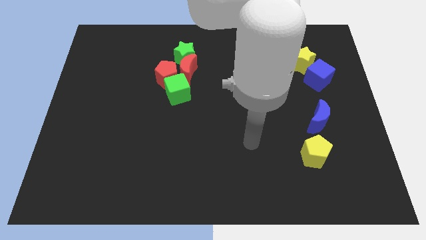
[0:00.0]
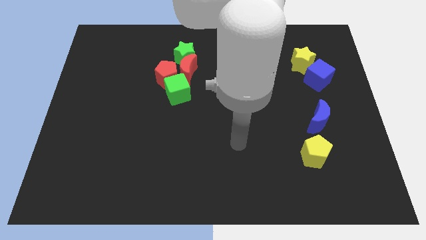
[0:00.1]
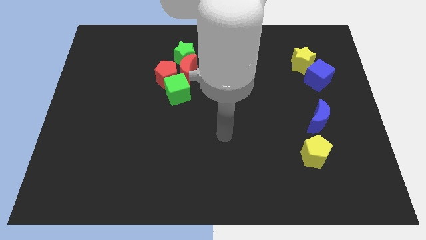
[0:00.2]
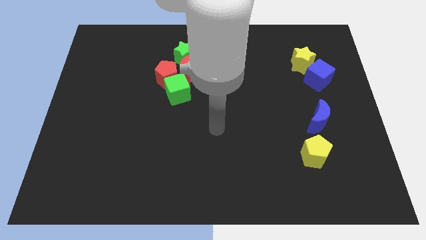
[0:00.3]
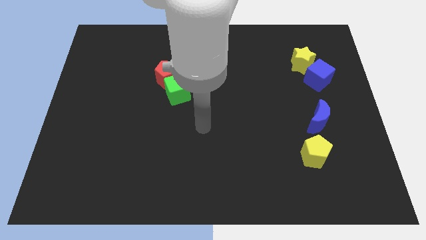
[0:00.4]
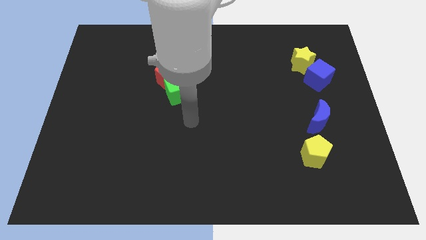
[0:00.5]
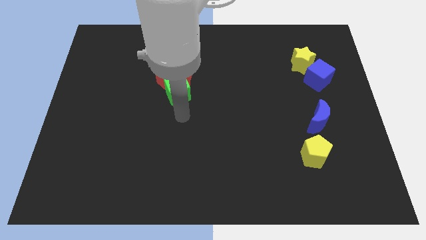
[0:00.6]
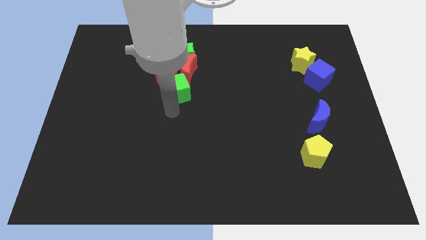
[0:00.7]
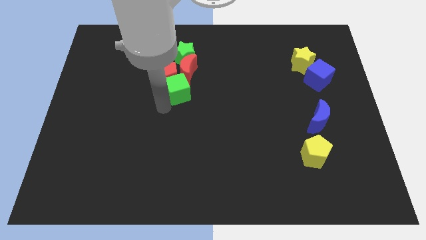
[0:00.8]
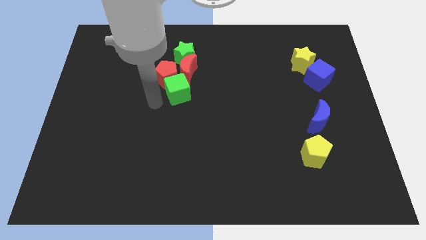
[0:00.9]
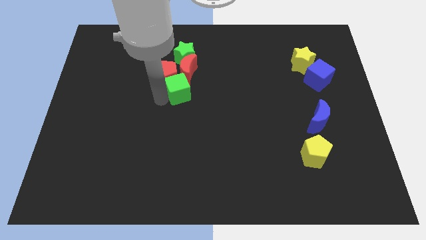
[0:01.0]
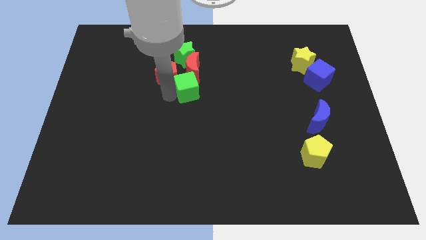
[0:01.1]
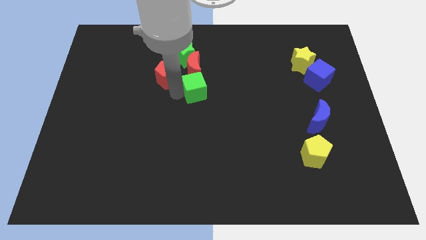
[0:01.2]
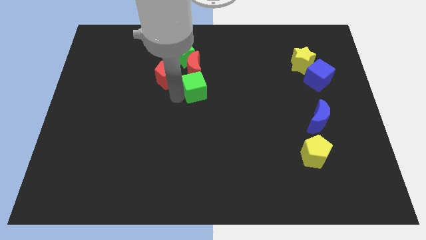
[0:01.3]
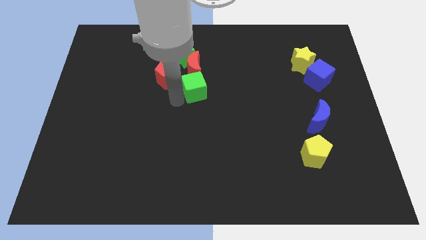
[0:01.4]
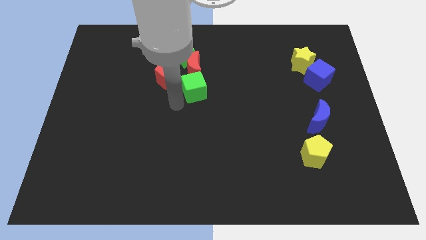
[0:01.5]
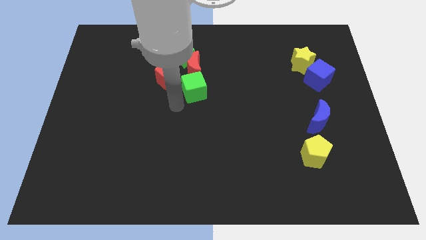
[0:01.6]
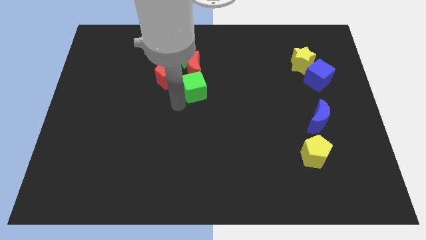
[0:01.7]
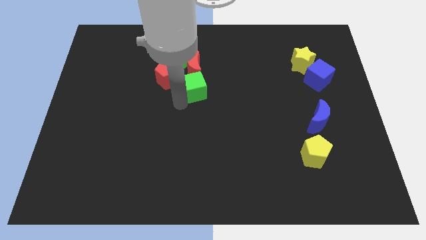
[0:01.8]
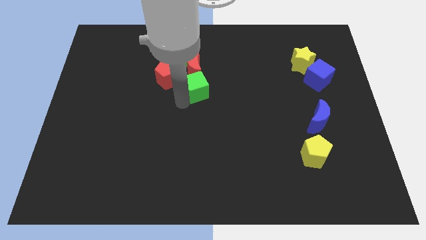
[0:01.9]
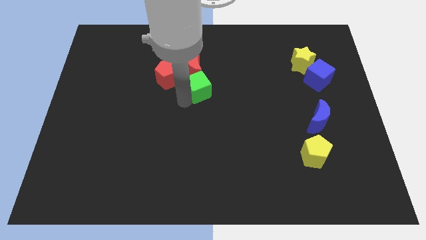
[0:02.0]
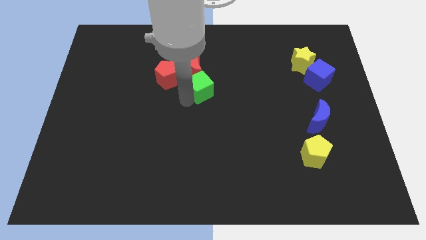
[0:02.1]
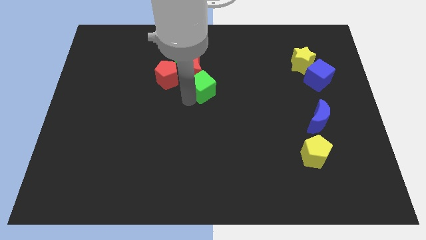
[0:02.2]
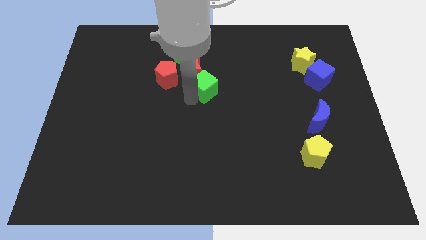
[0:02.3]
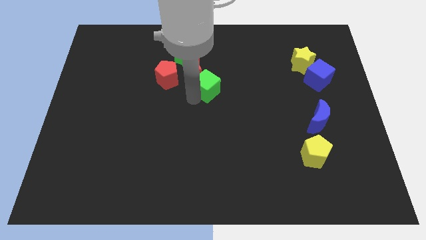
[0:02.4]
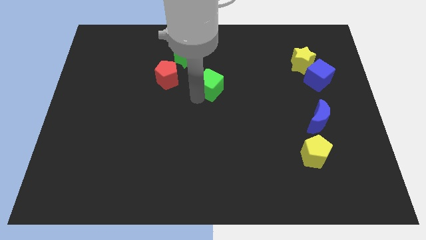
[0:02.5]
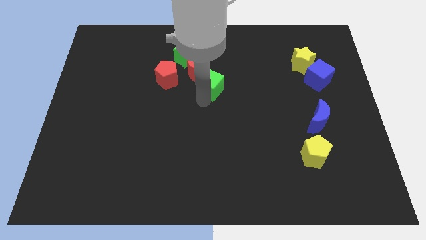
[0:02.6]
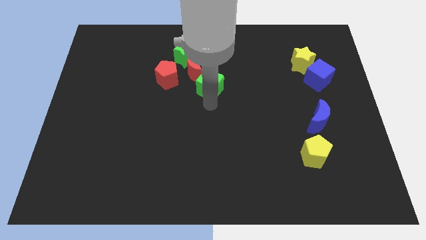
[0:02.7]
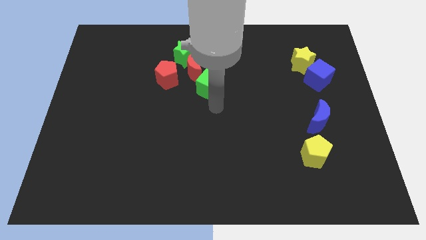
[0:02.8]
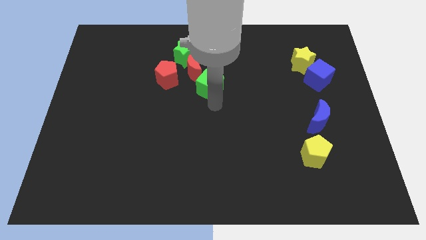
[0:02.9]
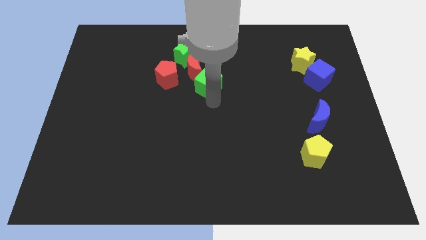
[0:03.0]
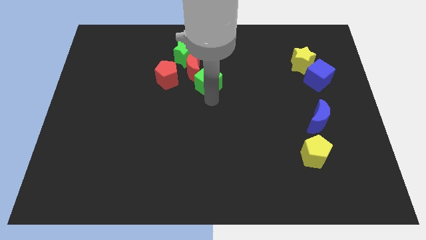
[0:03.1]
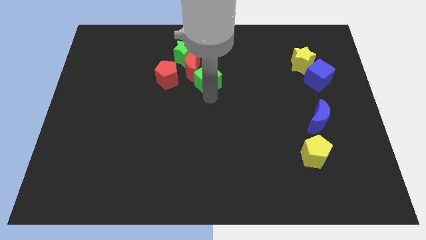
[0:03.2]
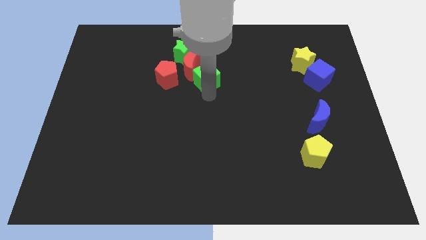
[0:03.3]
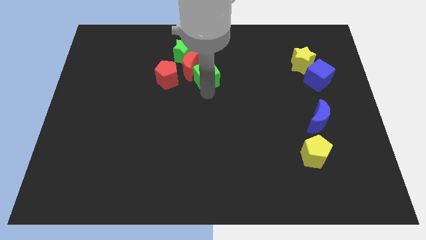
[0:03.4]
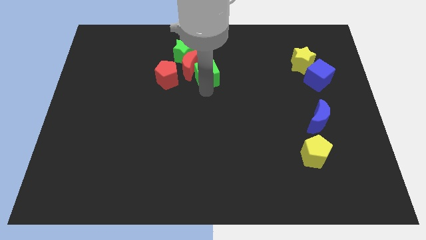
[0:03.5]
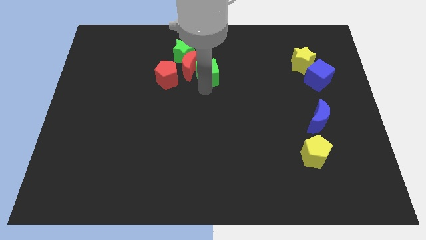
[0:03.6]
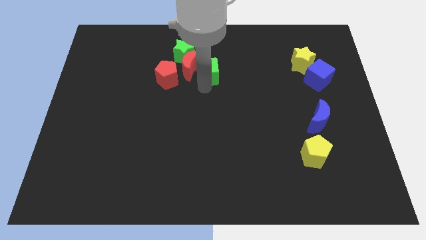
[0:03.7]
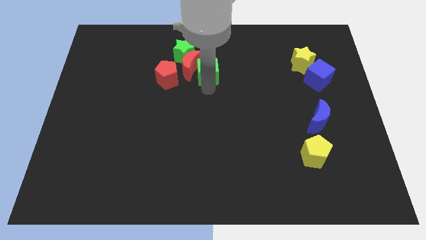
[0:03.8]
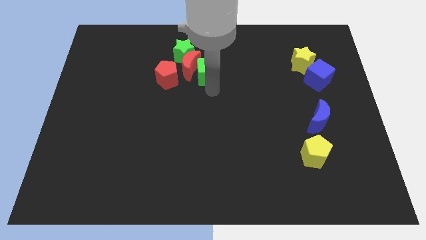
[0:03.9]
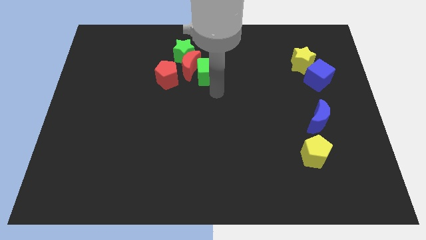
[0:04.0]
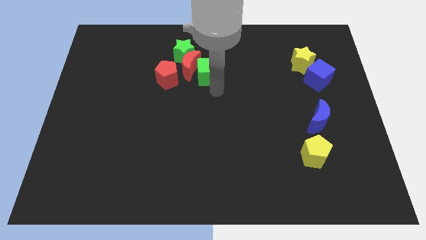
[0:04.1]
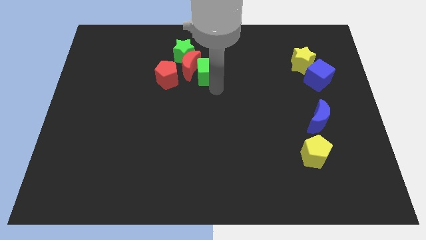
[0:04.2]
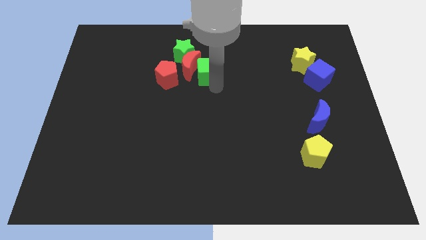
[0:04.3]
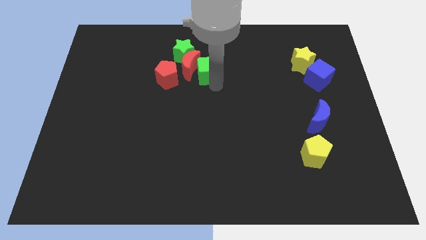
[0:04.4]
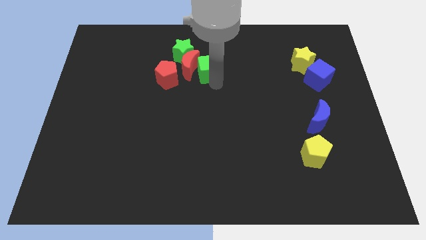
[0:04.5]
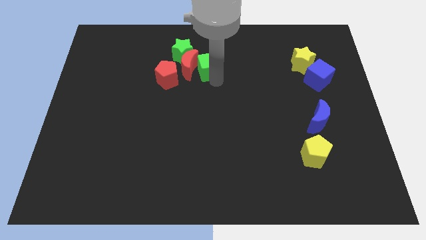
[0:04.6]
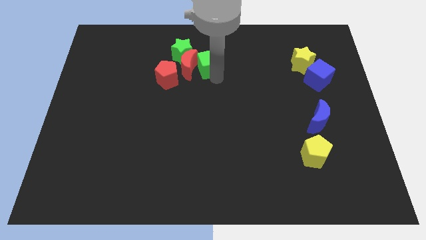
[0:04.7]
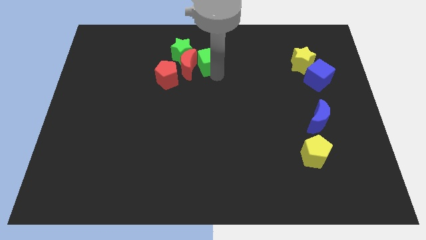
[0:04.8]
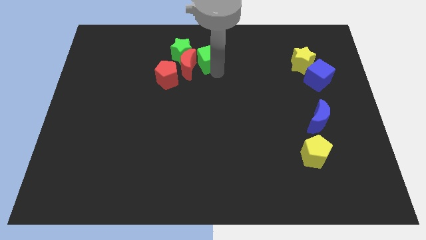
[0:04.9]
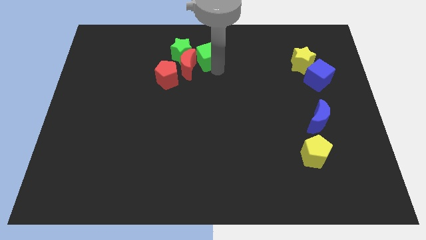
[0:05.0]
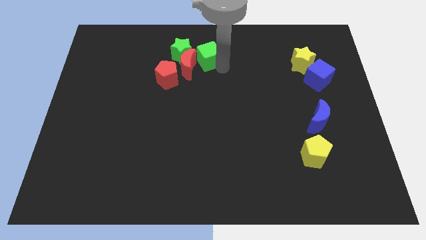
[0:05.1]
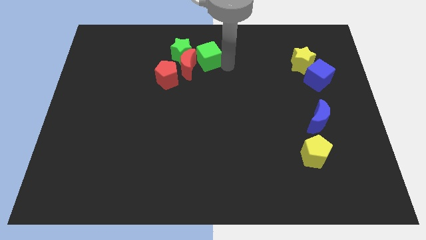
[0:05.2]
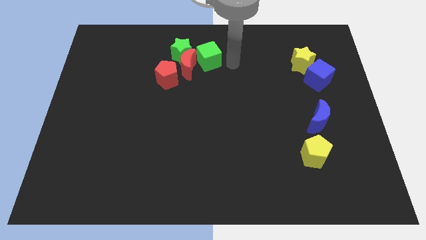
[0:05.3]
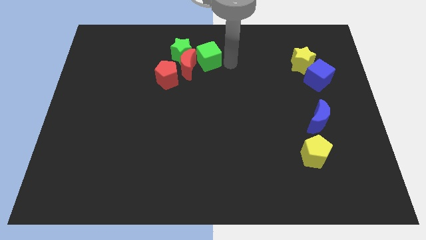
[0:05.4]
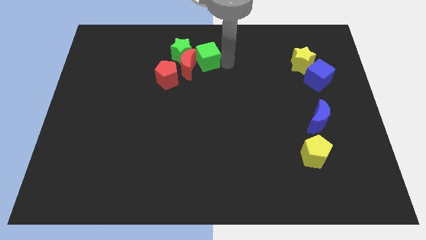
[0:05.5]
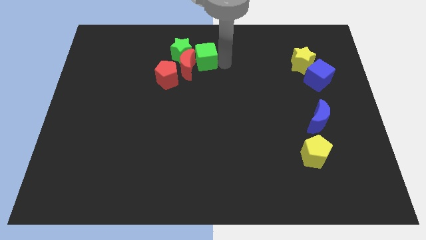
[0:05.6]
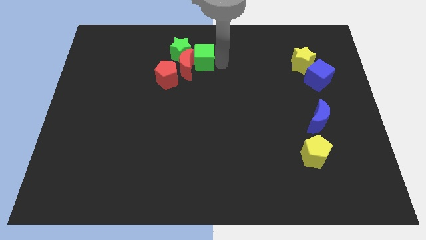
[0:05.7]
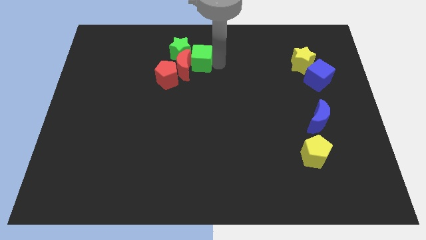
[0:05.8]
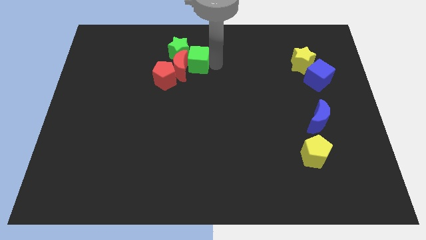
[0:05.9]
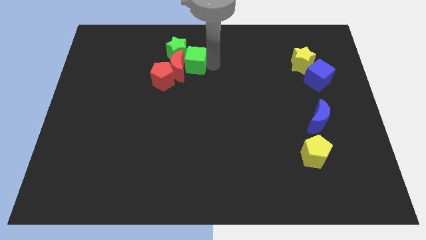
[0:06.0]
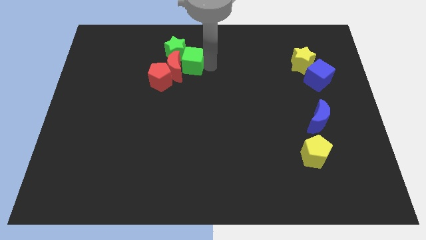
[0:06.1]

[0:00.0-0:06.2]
push the green cube next to the green star
